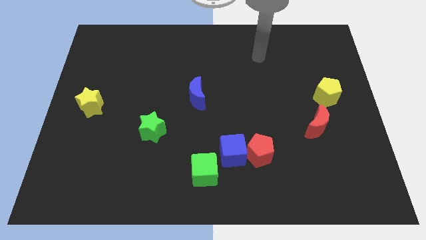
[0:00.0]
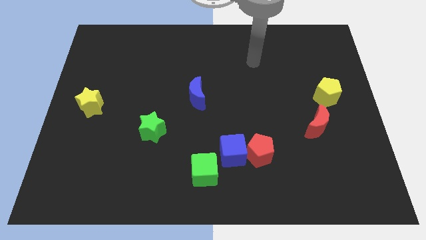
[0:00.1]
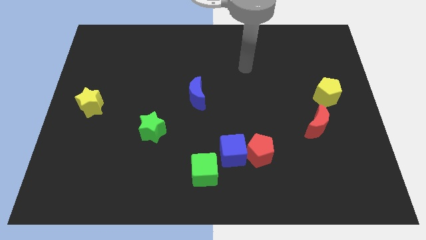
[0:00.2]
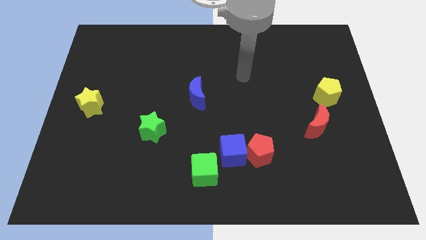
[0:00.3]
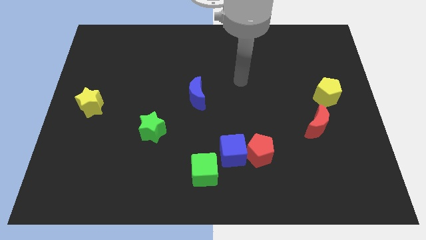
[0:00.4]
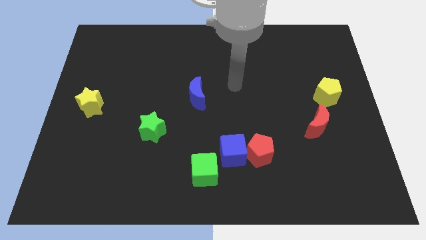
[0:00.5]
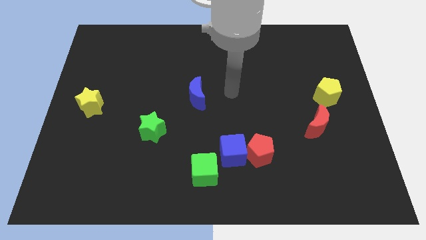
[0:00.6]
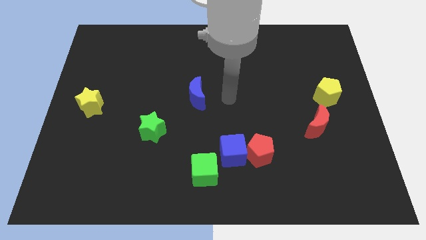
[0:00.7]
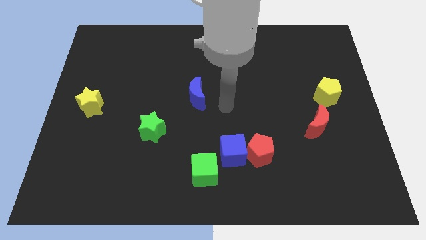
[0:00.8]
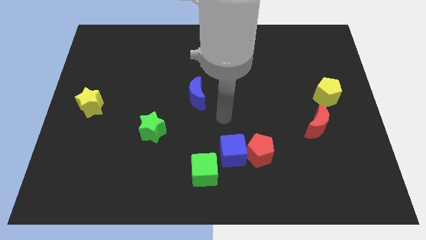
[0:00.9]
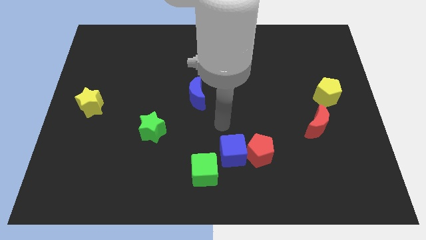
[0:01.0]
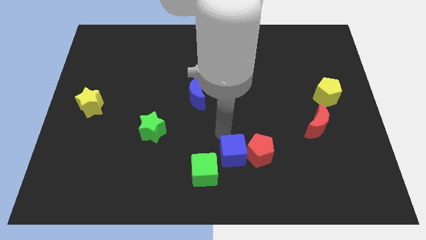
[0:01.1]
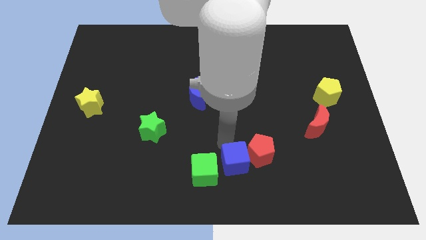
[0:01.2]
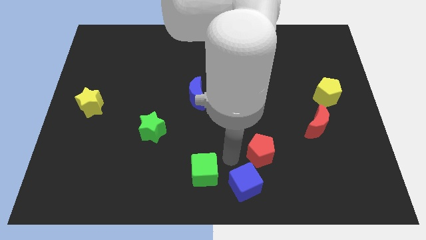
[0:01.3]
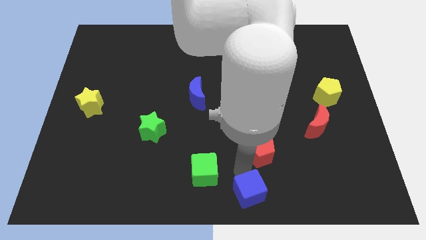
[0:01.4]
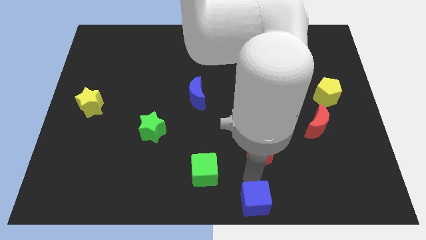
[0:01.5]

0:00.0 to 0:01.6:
move the red pentagon away from the blue cube

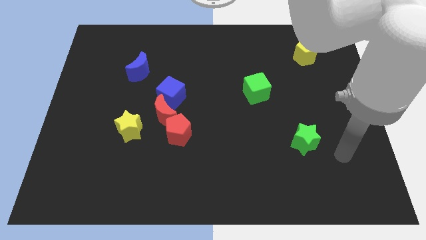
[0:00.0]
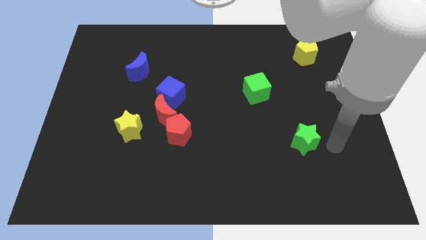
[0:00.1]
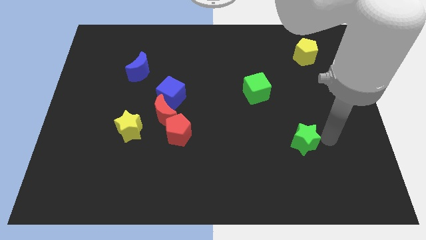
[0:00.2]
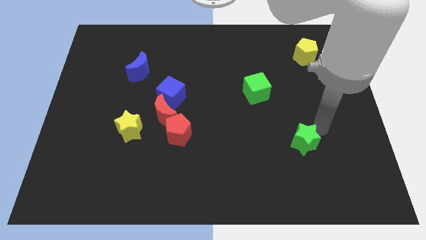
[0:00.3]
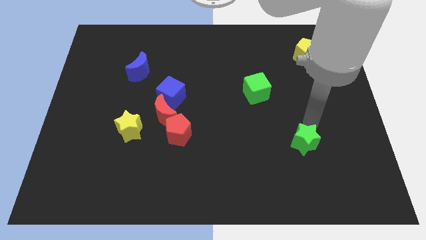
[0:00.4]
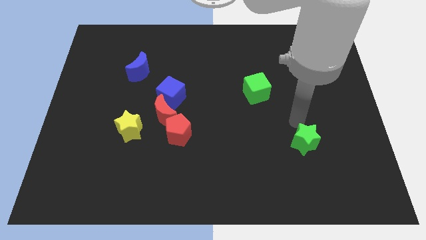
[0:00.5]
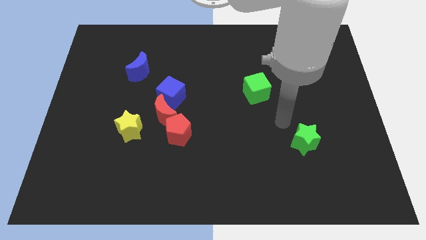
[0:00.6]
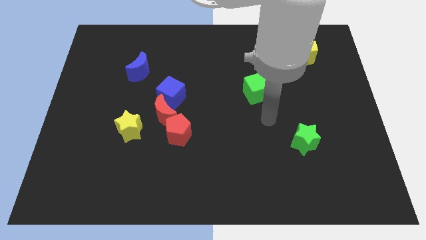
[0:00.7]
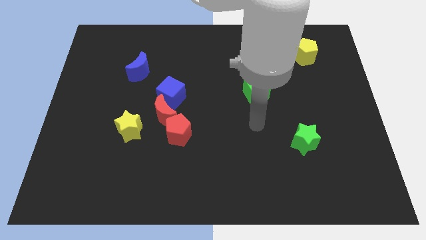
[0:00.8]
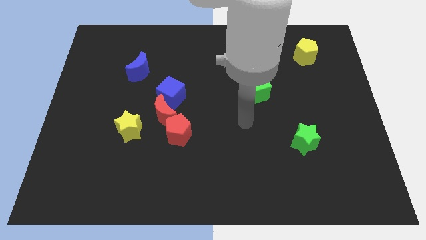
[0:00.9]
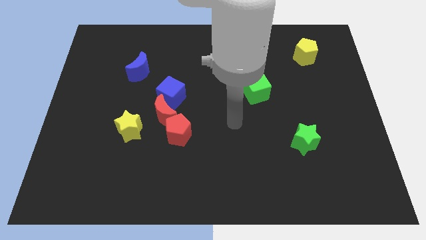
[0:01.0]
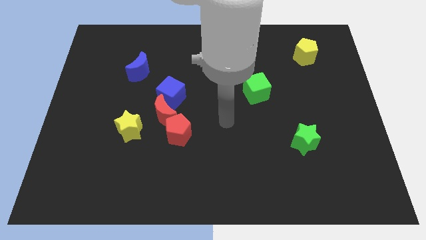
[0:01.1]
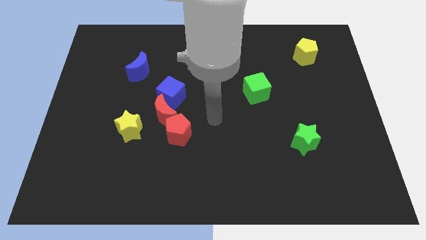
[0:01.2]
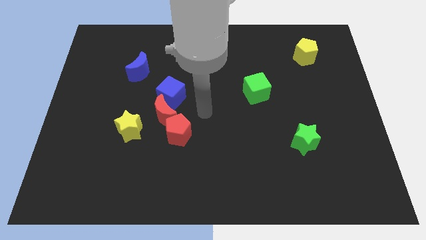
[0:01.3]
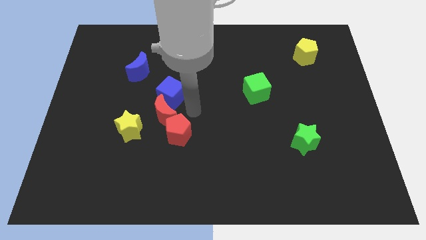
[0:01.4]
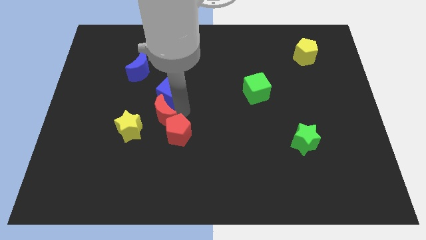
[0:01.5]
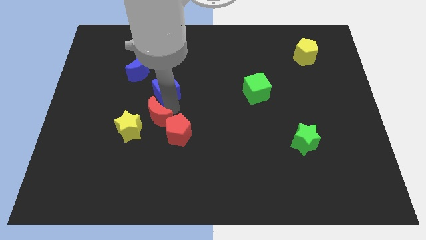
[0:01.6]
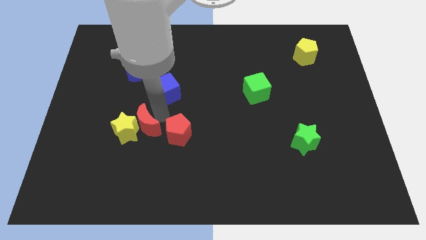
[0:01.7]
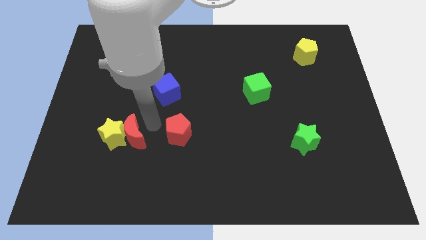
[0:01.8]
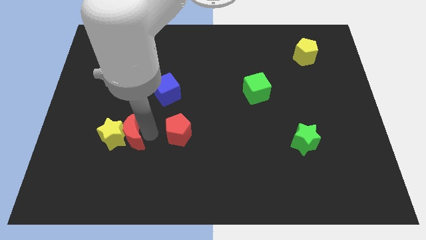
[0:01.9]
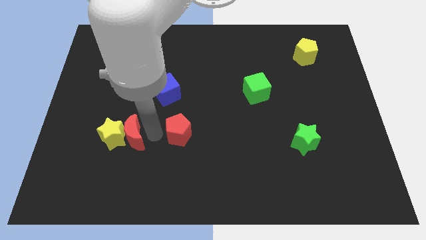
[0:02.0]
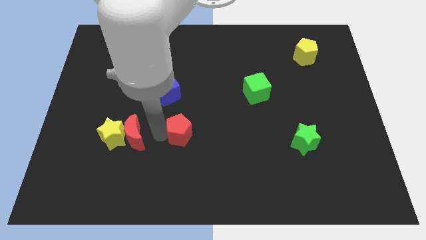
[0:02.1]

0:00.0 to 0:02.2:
separate the red pentagon from the red moon

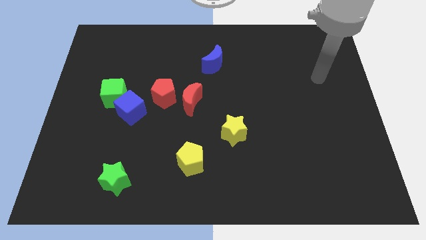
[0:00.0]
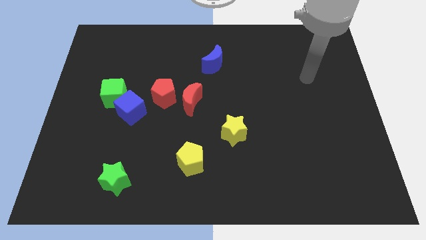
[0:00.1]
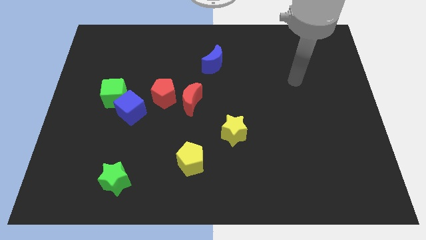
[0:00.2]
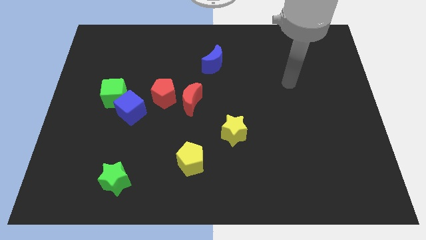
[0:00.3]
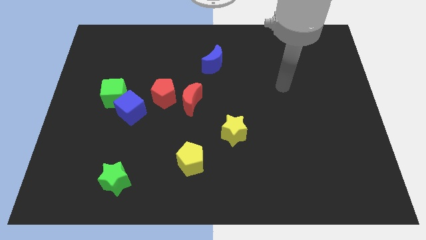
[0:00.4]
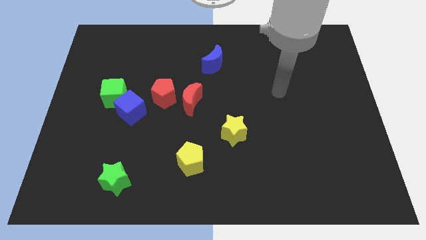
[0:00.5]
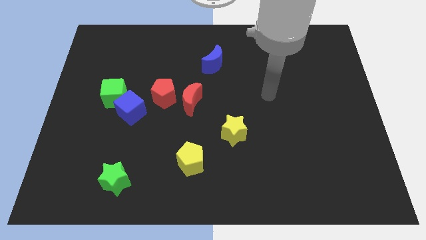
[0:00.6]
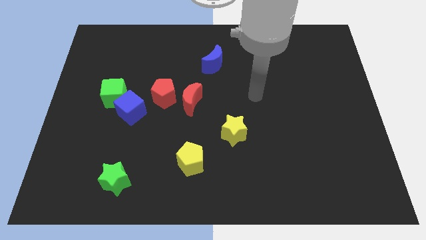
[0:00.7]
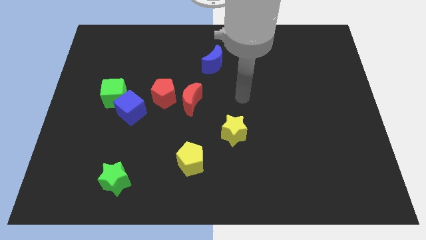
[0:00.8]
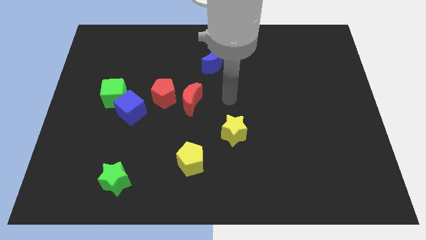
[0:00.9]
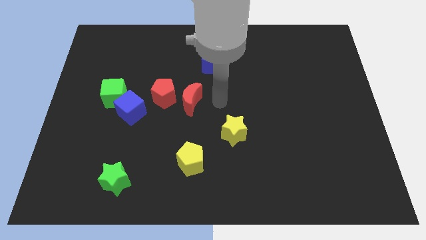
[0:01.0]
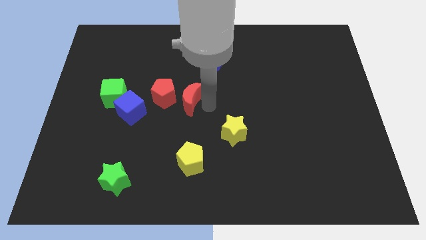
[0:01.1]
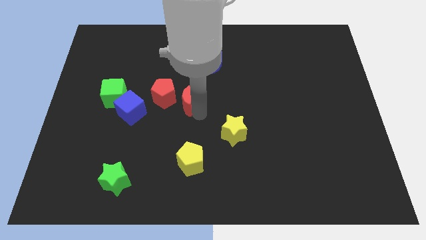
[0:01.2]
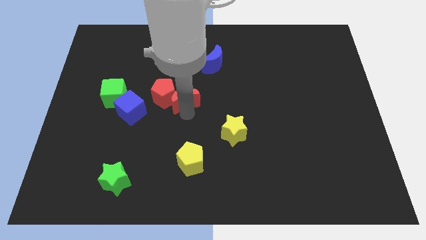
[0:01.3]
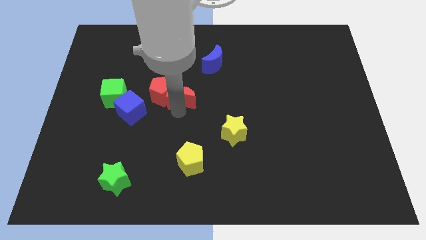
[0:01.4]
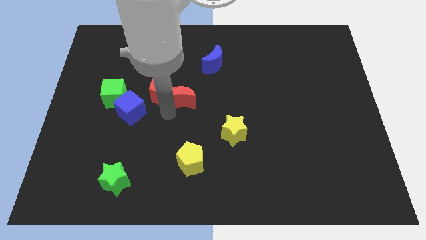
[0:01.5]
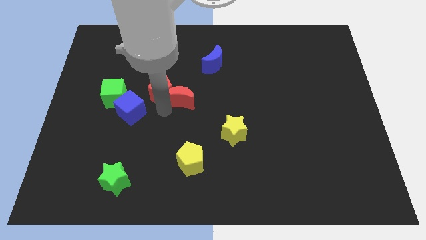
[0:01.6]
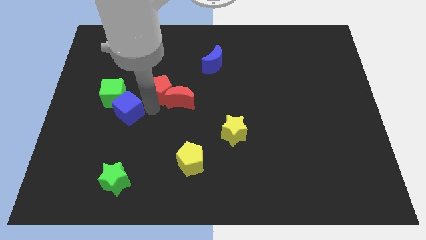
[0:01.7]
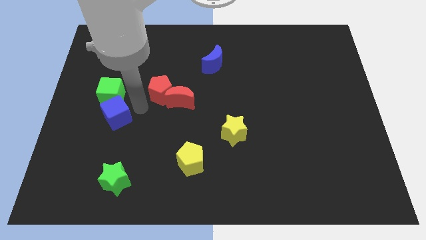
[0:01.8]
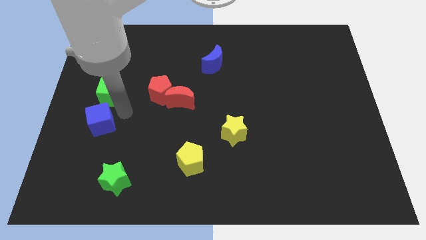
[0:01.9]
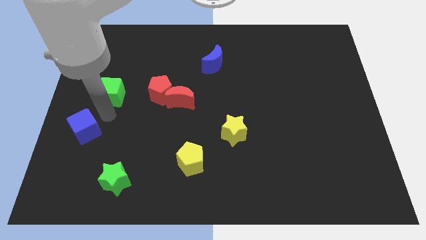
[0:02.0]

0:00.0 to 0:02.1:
move the green cube away from the blue cube

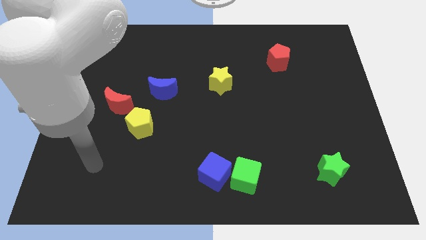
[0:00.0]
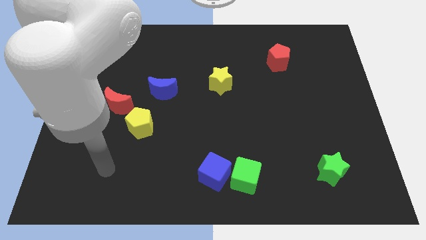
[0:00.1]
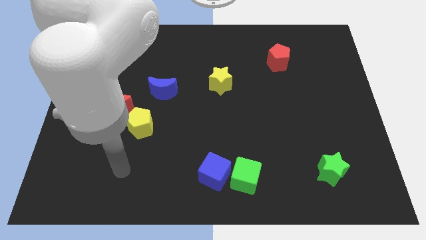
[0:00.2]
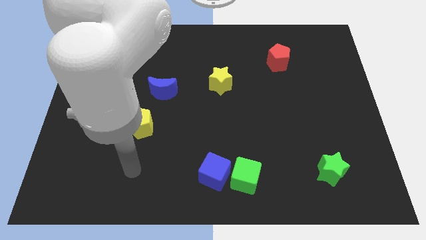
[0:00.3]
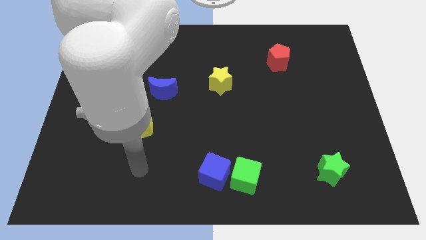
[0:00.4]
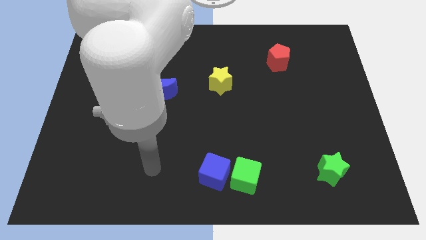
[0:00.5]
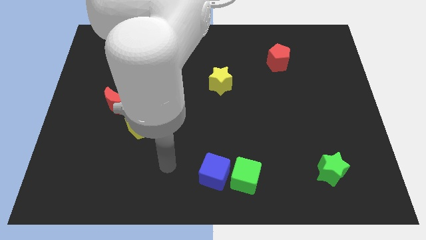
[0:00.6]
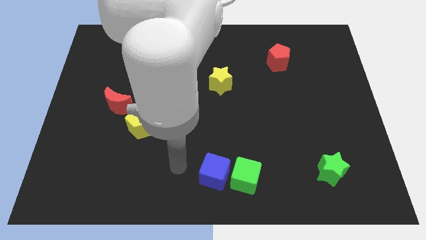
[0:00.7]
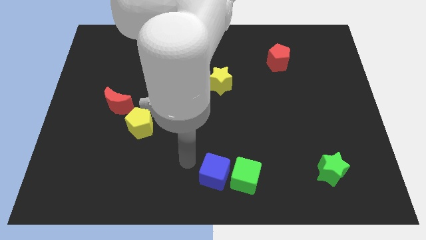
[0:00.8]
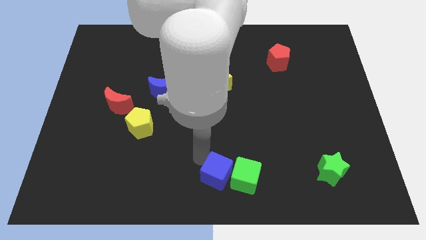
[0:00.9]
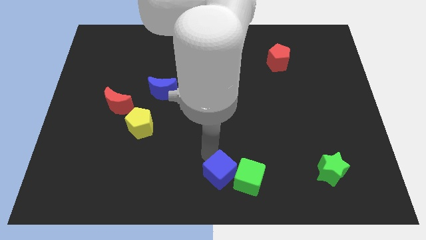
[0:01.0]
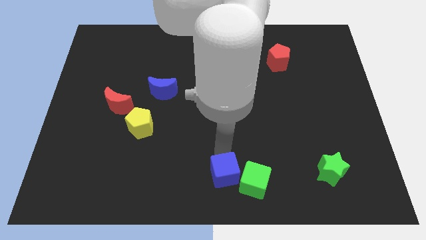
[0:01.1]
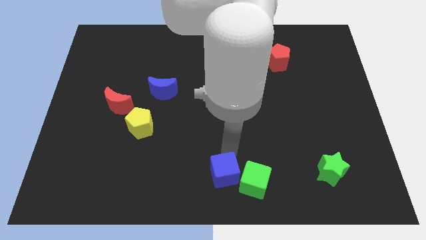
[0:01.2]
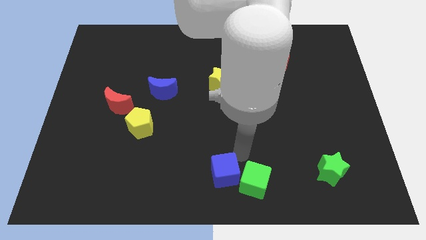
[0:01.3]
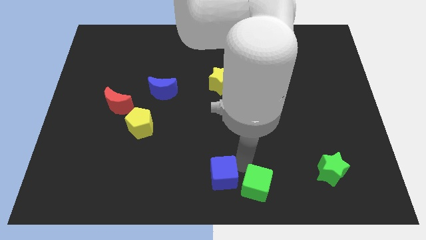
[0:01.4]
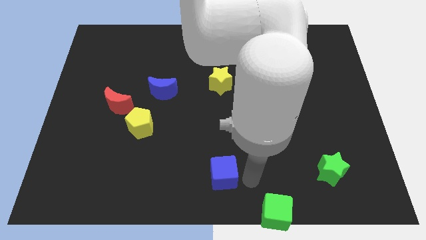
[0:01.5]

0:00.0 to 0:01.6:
move the blue cube away from the green cube

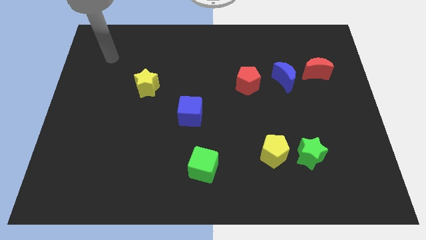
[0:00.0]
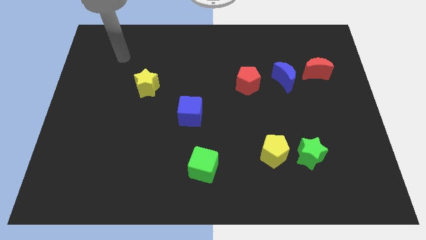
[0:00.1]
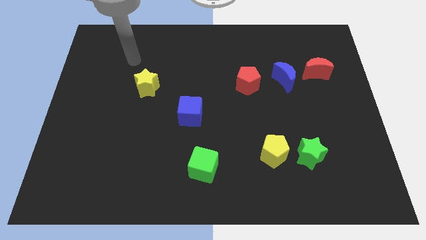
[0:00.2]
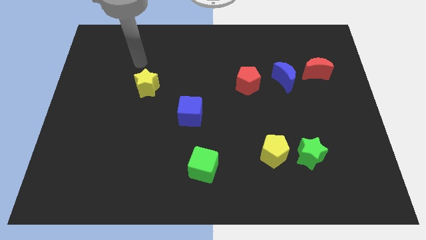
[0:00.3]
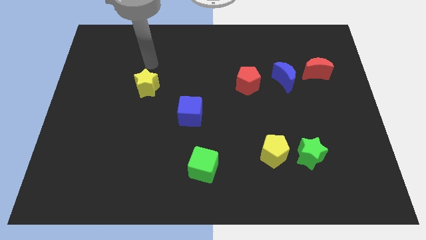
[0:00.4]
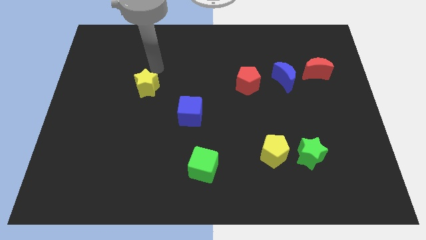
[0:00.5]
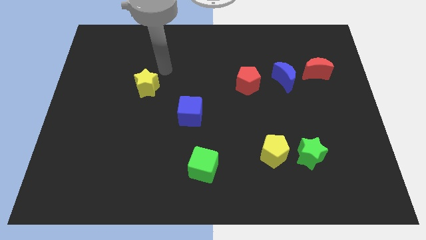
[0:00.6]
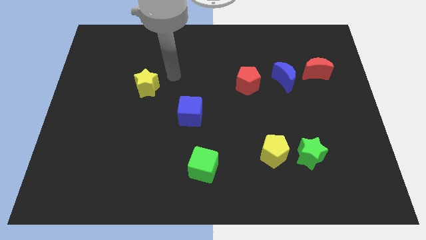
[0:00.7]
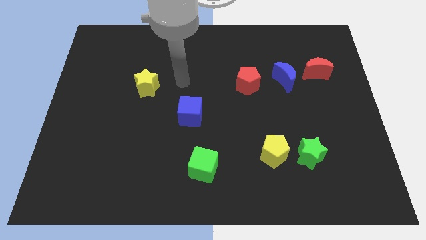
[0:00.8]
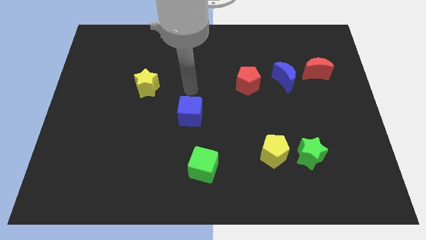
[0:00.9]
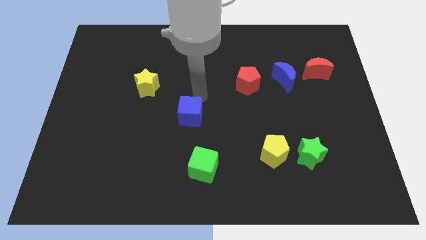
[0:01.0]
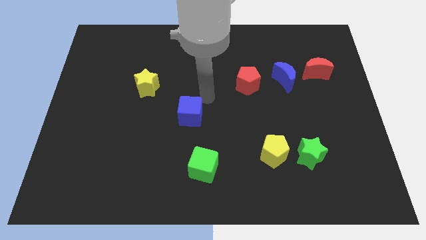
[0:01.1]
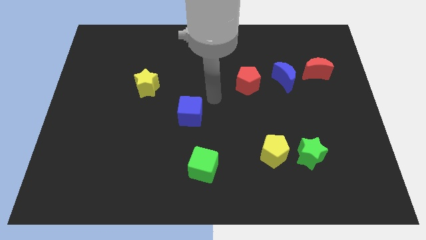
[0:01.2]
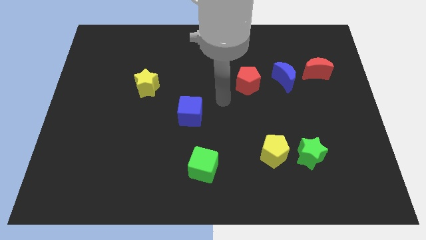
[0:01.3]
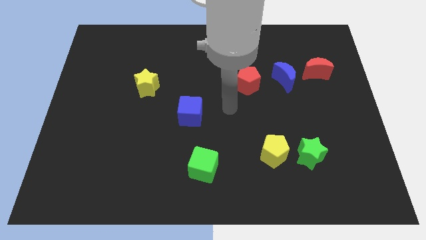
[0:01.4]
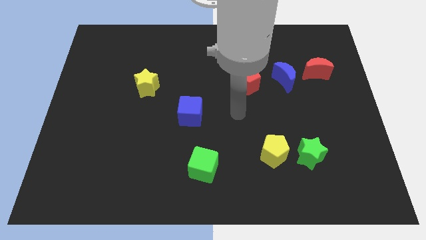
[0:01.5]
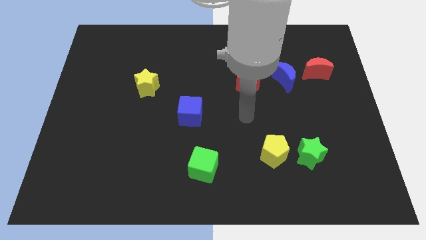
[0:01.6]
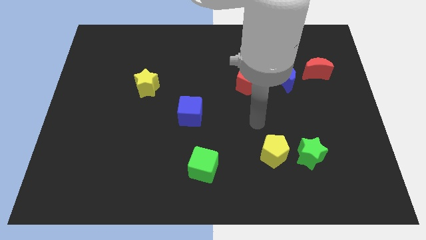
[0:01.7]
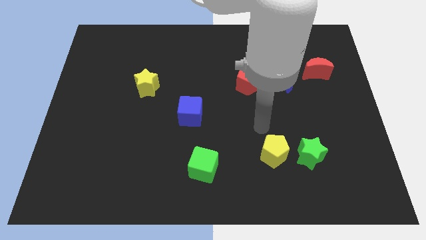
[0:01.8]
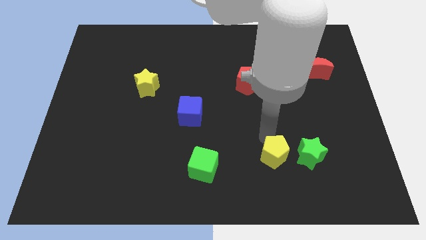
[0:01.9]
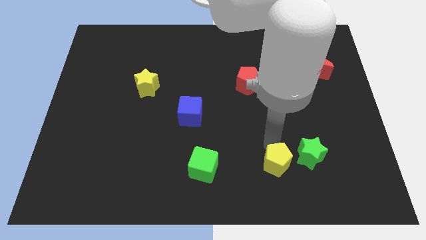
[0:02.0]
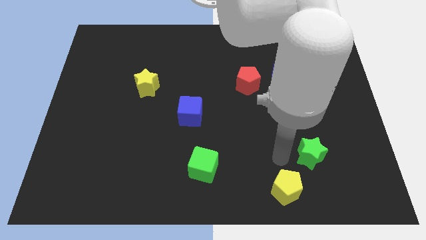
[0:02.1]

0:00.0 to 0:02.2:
pull the green star apart from the yellow pentagon
